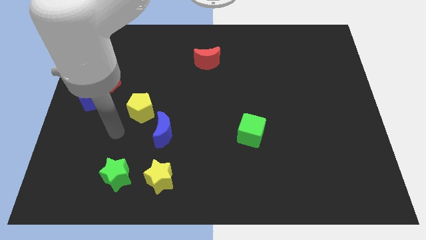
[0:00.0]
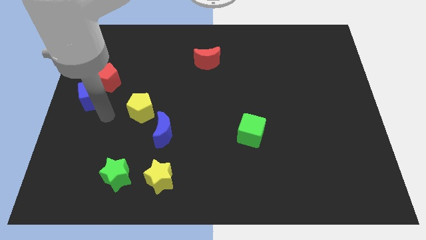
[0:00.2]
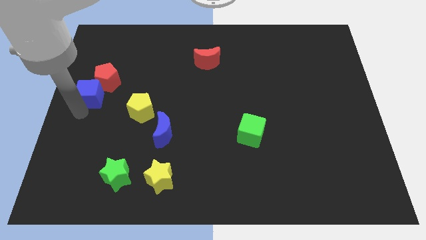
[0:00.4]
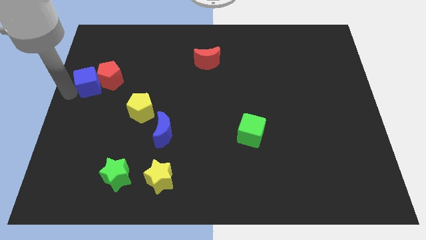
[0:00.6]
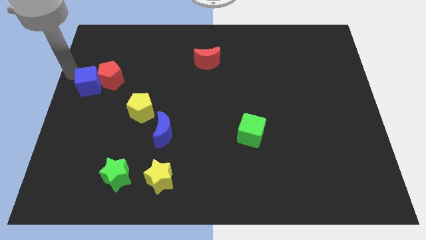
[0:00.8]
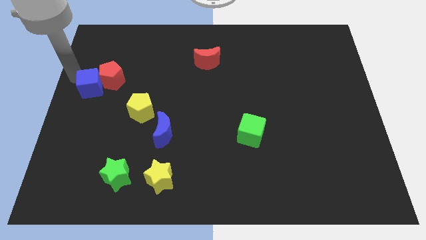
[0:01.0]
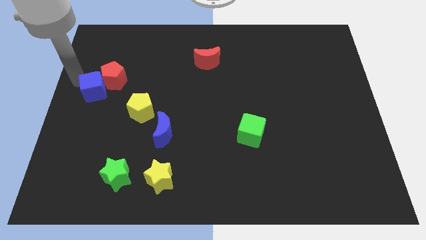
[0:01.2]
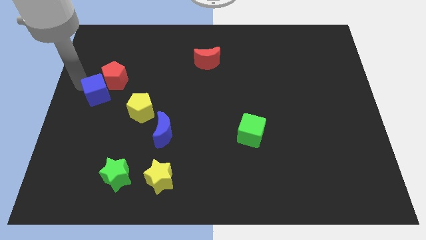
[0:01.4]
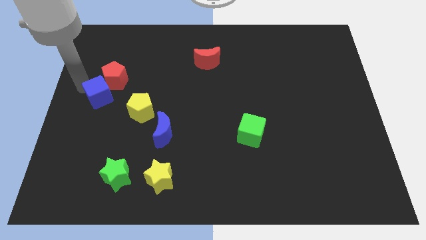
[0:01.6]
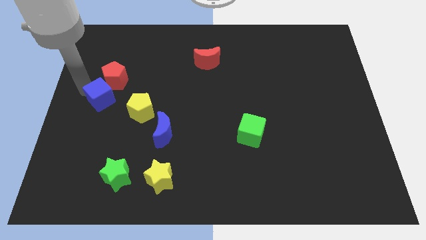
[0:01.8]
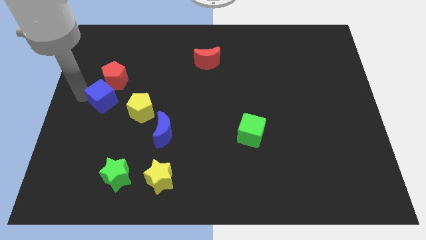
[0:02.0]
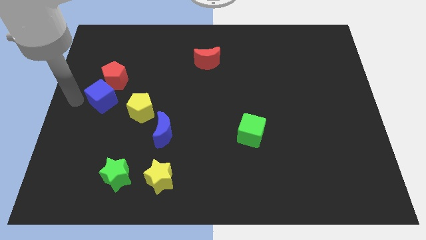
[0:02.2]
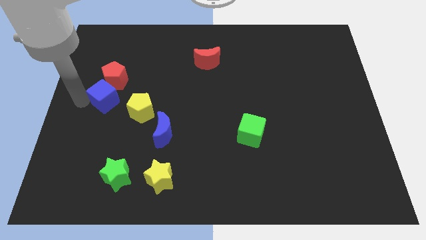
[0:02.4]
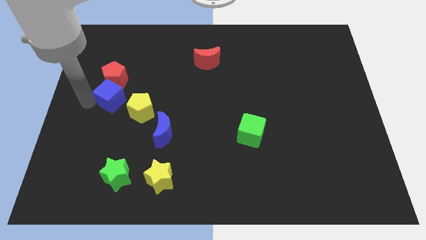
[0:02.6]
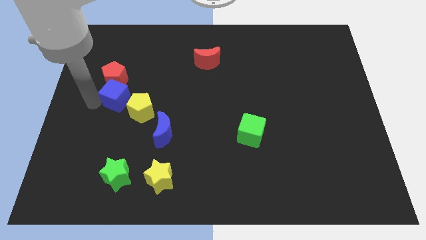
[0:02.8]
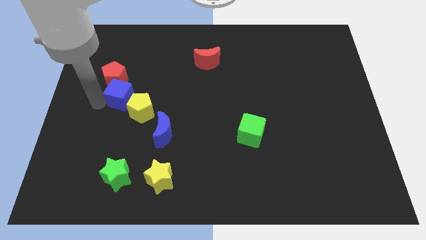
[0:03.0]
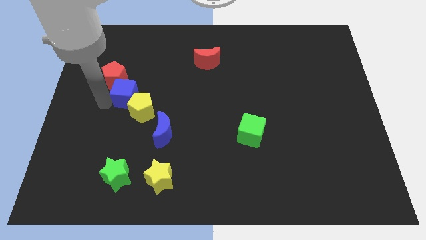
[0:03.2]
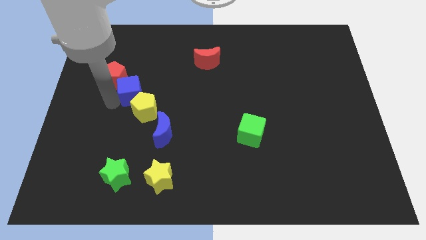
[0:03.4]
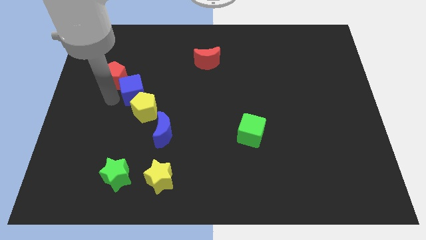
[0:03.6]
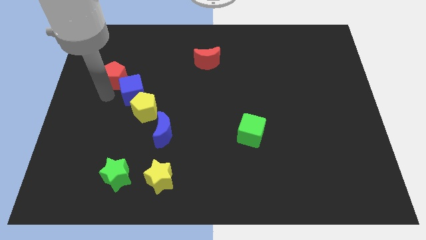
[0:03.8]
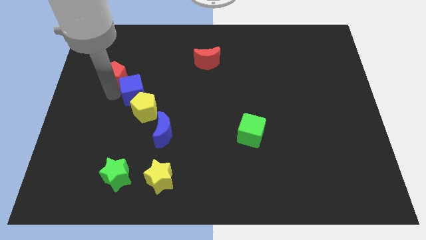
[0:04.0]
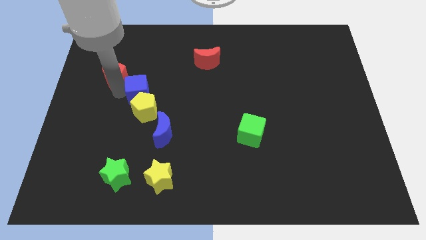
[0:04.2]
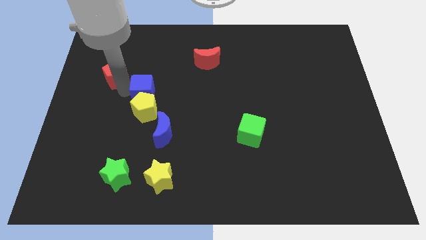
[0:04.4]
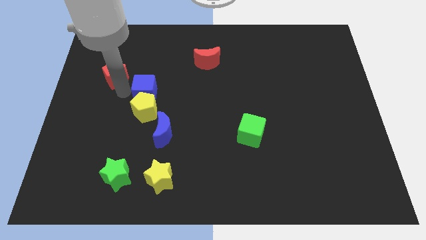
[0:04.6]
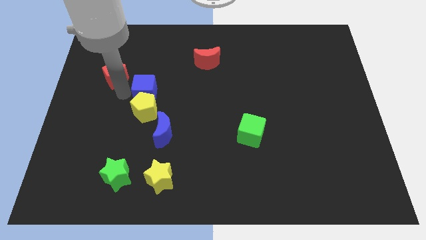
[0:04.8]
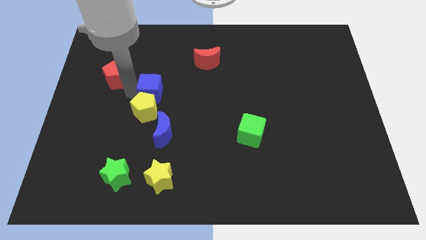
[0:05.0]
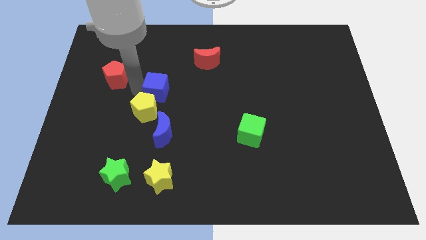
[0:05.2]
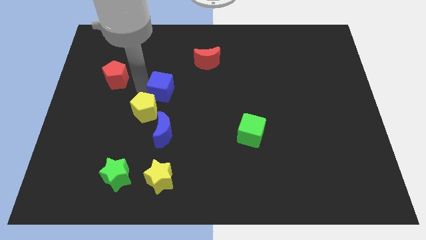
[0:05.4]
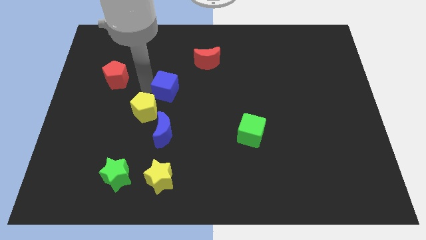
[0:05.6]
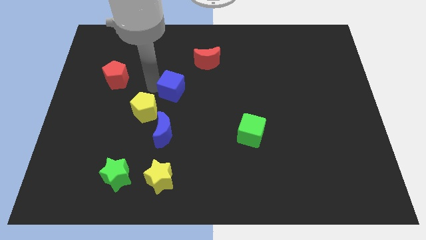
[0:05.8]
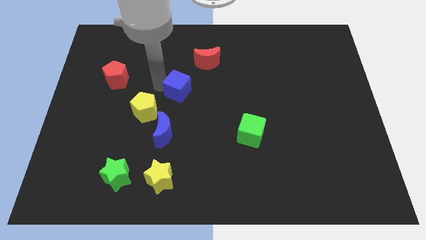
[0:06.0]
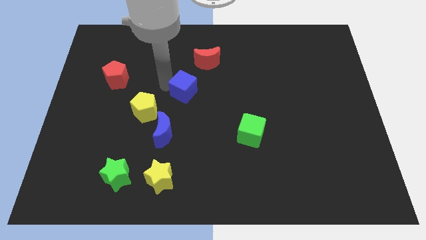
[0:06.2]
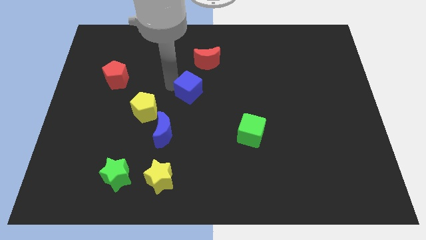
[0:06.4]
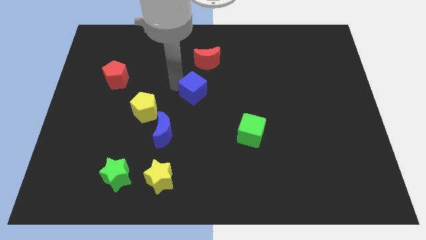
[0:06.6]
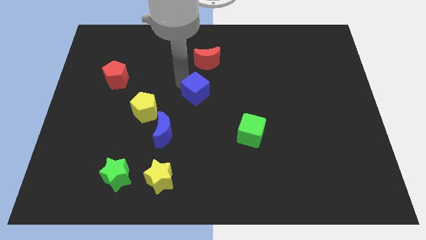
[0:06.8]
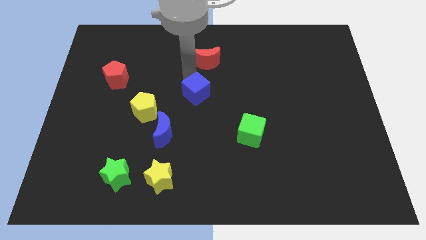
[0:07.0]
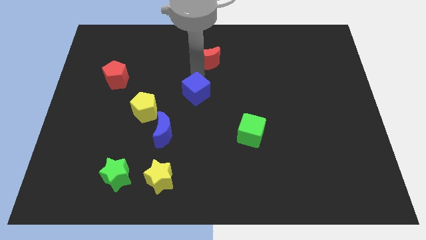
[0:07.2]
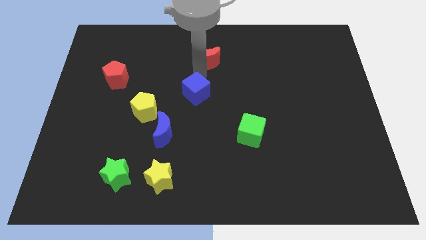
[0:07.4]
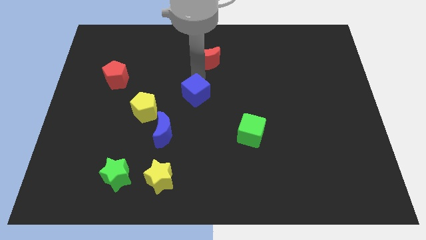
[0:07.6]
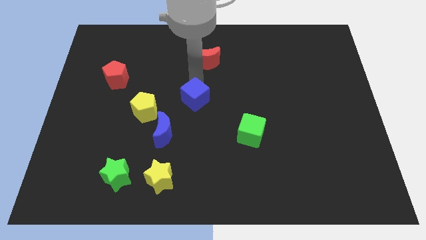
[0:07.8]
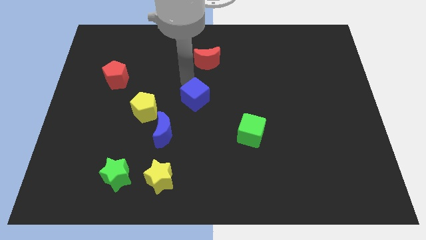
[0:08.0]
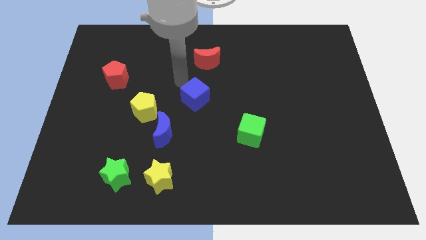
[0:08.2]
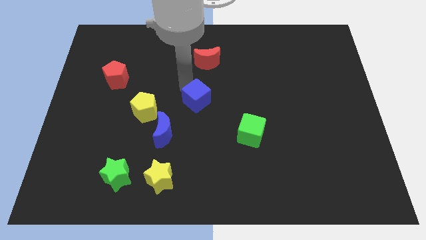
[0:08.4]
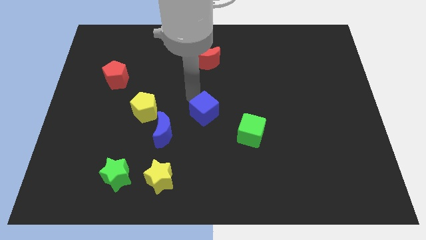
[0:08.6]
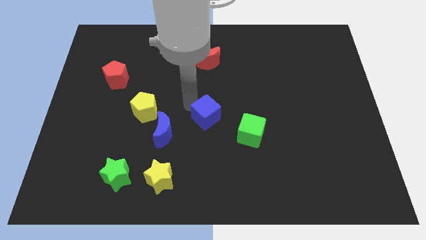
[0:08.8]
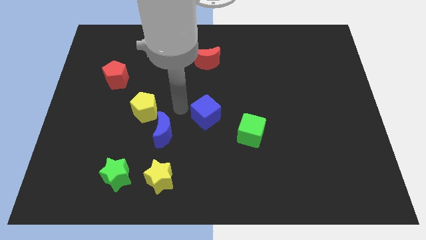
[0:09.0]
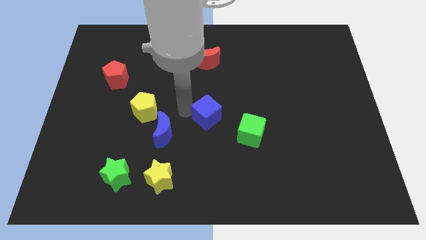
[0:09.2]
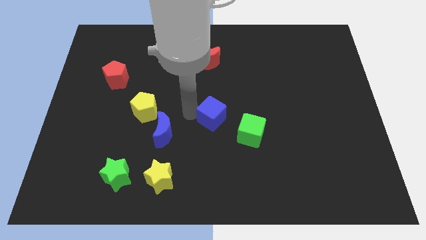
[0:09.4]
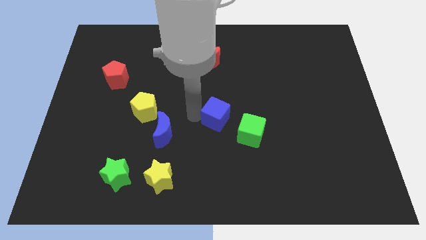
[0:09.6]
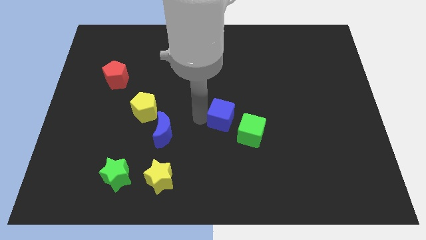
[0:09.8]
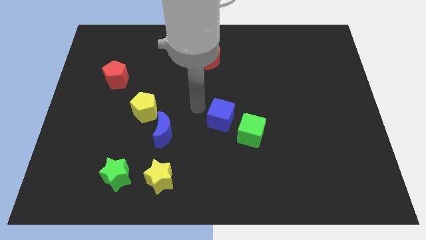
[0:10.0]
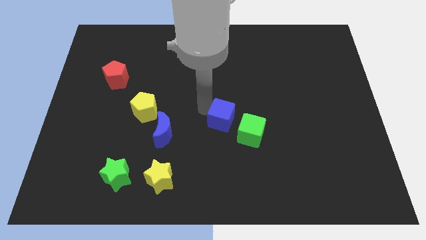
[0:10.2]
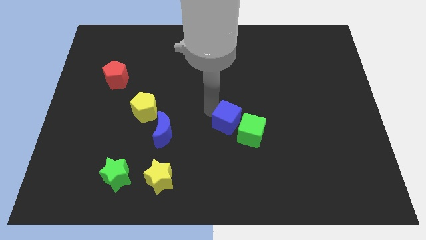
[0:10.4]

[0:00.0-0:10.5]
move the blue cube next to the green cube

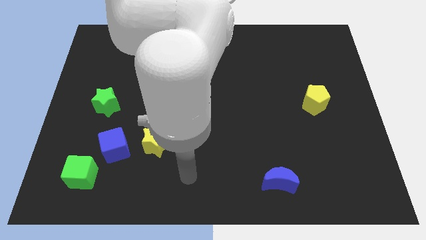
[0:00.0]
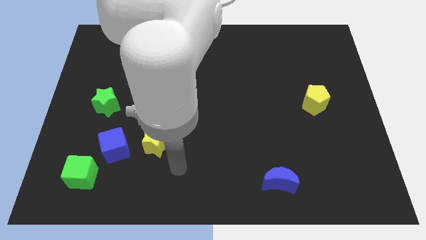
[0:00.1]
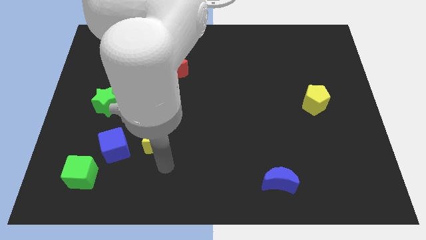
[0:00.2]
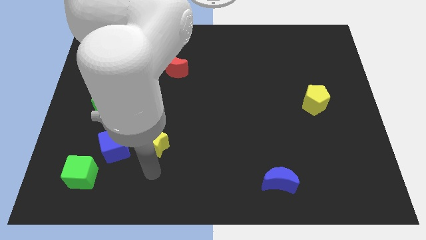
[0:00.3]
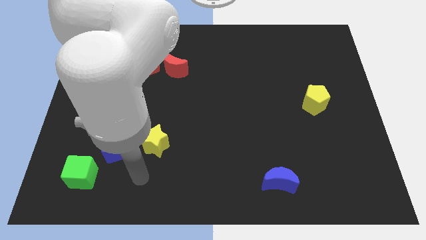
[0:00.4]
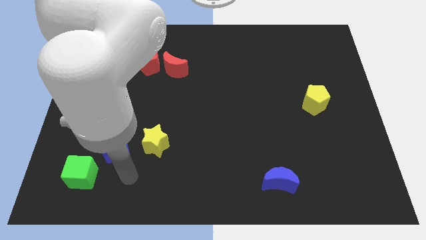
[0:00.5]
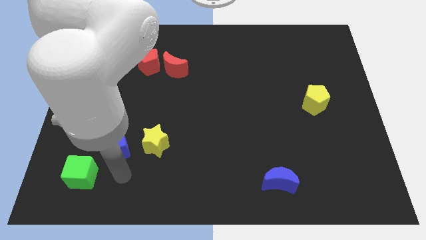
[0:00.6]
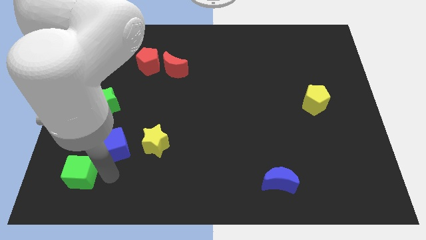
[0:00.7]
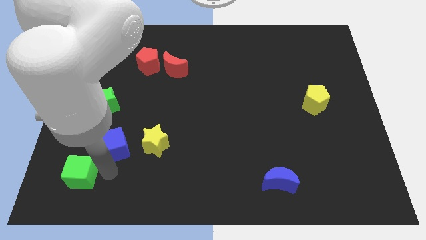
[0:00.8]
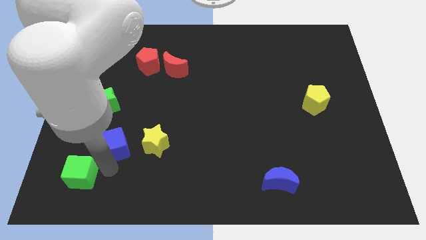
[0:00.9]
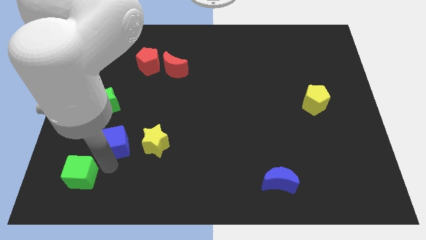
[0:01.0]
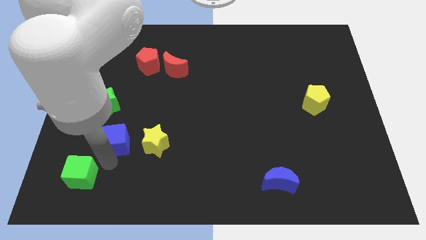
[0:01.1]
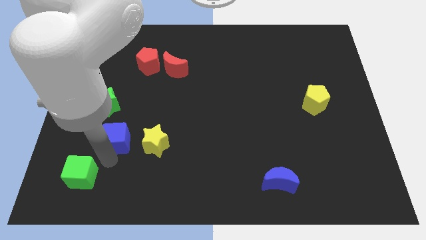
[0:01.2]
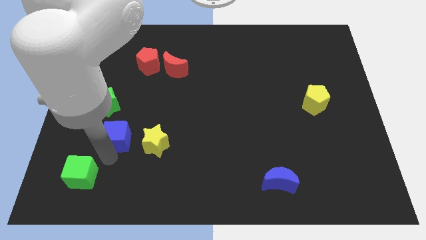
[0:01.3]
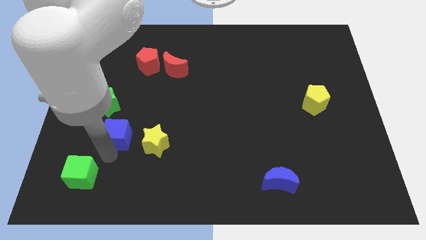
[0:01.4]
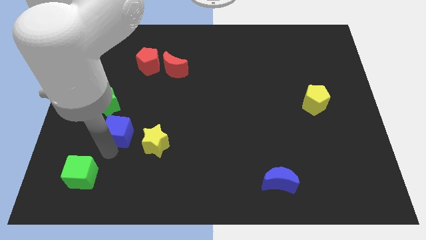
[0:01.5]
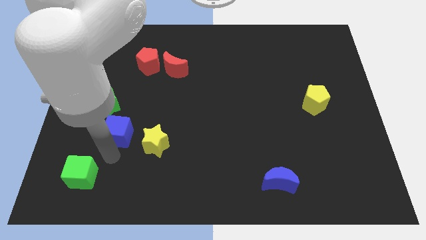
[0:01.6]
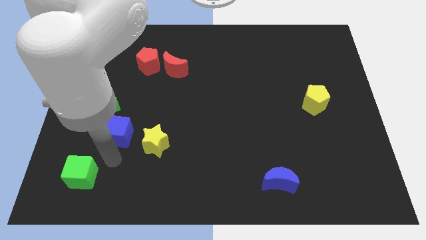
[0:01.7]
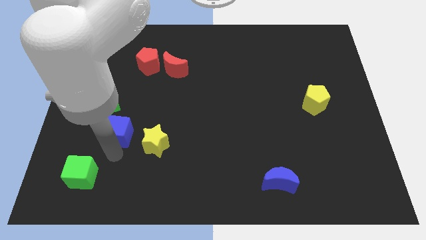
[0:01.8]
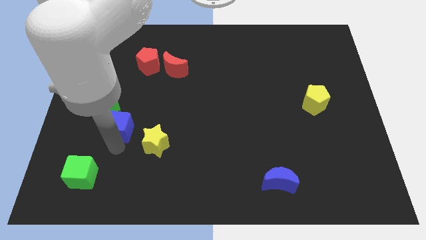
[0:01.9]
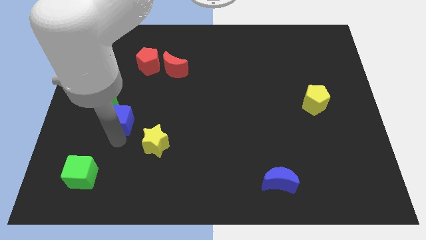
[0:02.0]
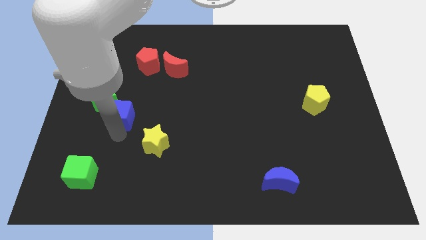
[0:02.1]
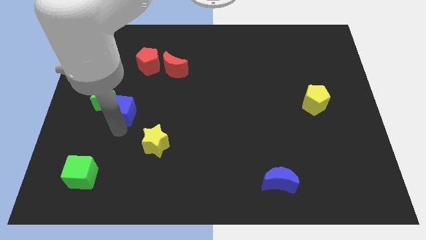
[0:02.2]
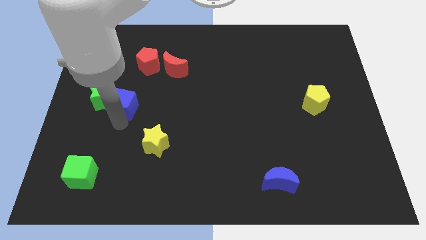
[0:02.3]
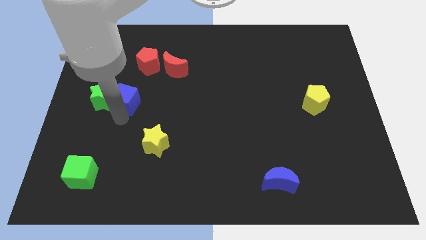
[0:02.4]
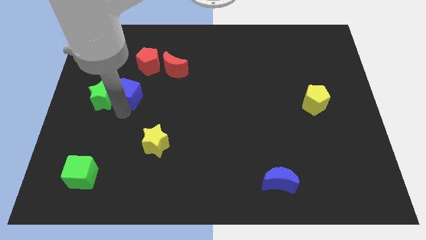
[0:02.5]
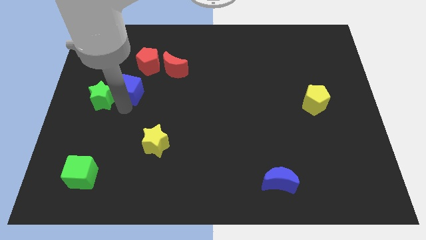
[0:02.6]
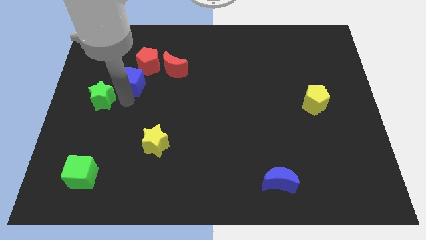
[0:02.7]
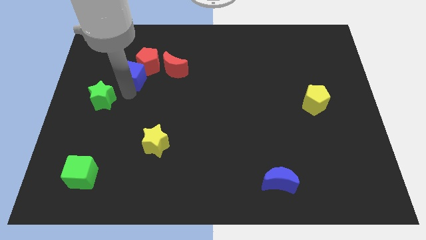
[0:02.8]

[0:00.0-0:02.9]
move the blue cube to the red pentagon
